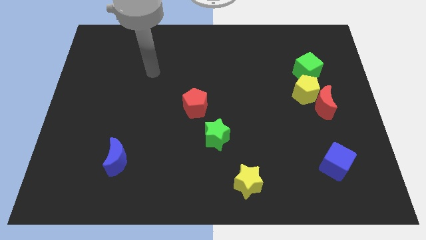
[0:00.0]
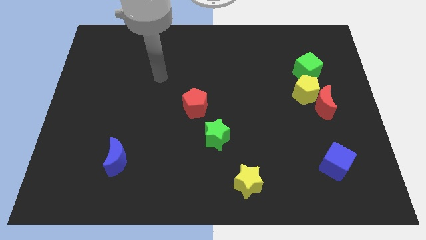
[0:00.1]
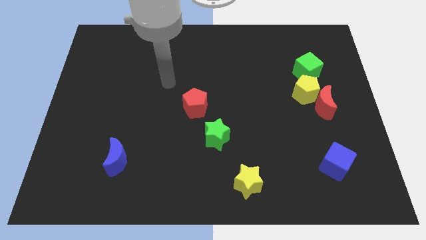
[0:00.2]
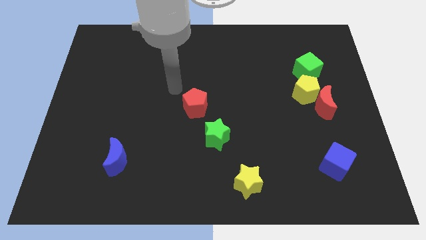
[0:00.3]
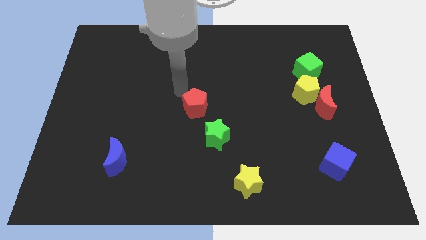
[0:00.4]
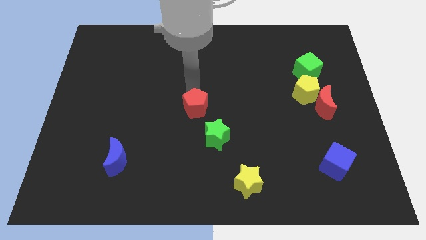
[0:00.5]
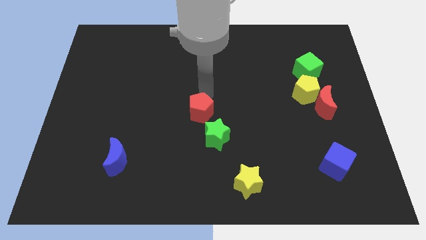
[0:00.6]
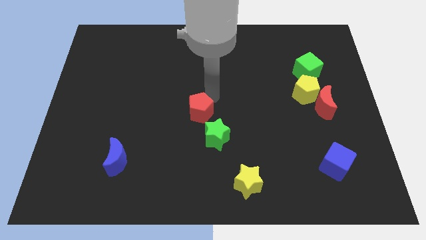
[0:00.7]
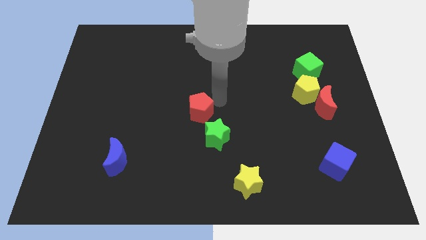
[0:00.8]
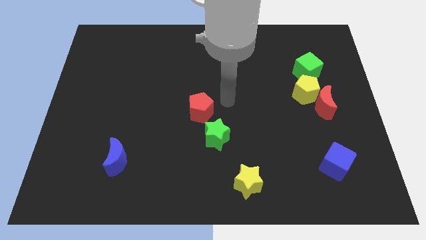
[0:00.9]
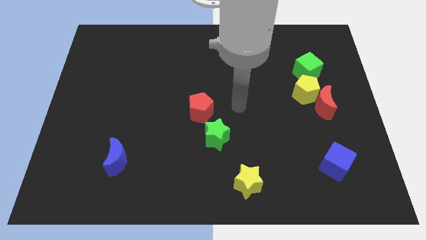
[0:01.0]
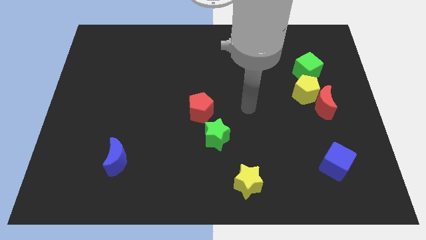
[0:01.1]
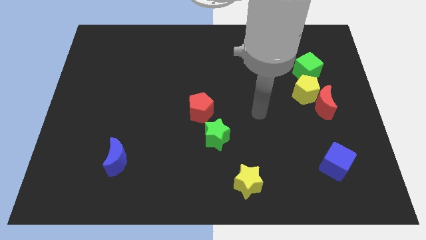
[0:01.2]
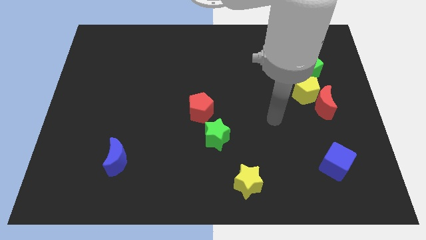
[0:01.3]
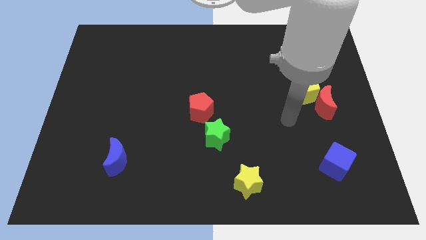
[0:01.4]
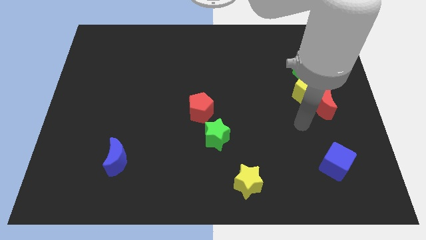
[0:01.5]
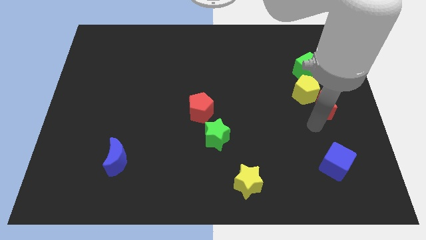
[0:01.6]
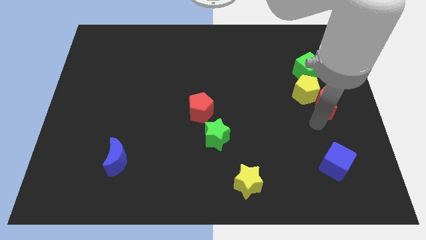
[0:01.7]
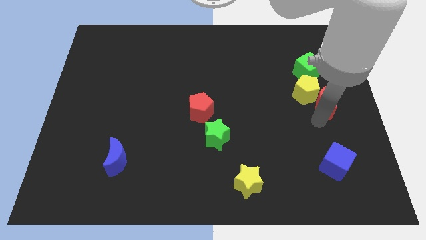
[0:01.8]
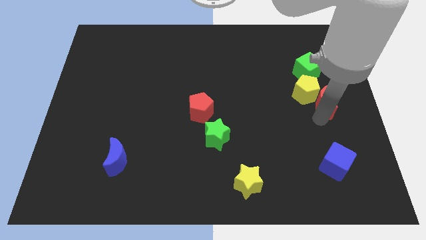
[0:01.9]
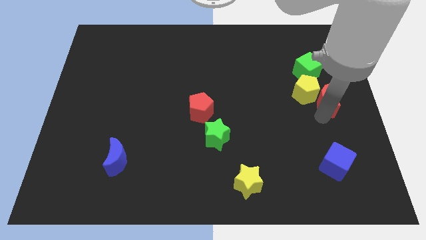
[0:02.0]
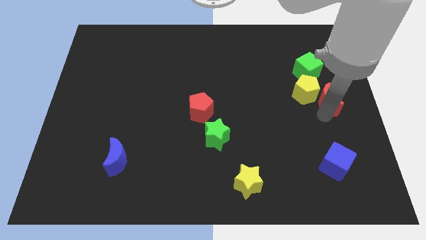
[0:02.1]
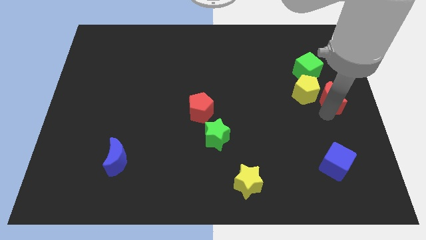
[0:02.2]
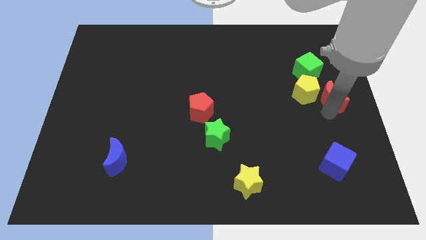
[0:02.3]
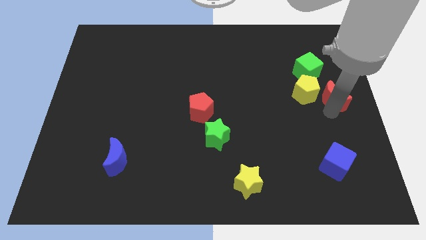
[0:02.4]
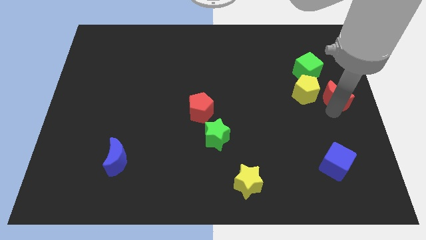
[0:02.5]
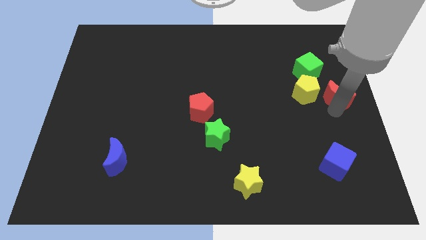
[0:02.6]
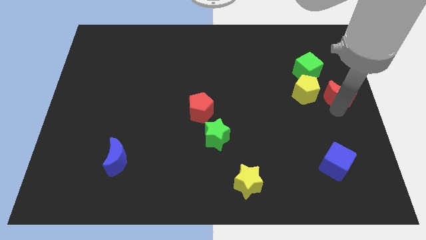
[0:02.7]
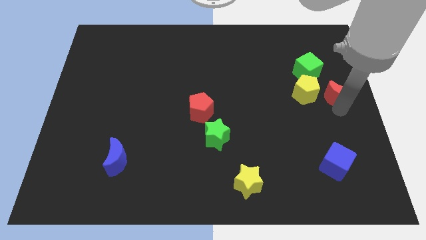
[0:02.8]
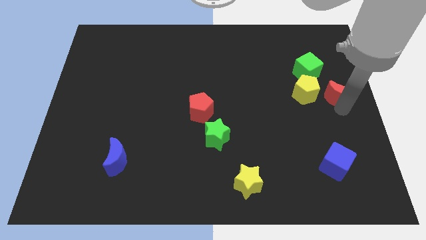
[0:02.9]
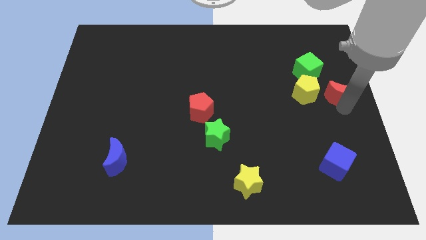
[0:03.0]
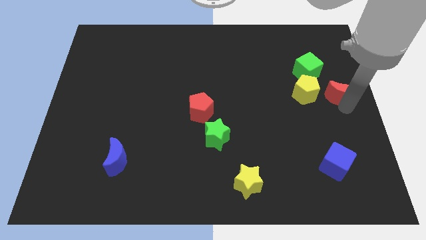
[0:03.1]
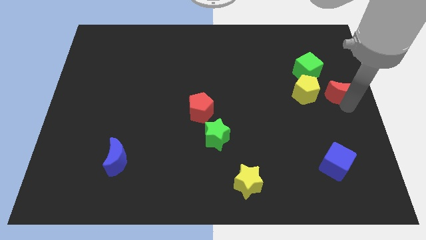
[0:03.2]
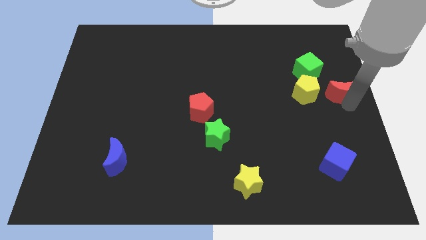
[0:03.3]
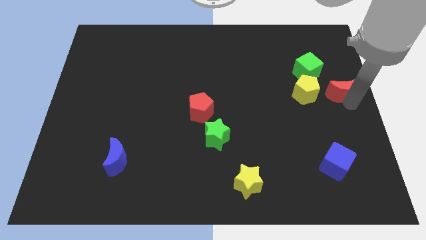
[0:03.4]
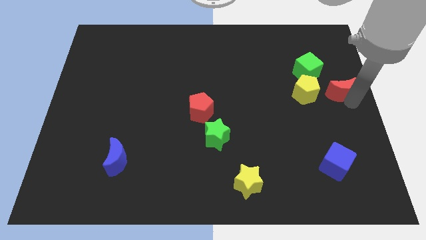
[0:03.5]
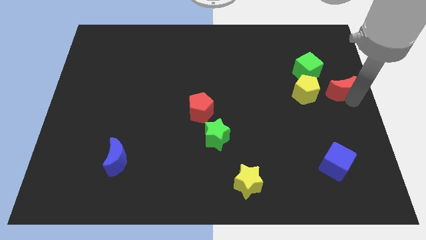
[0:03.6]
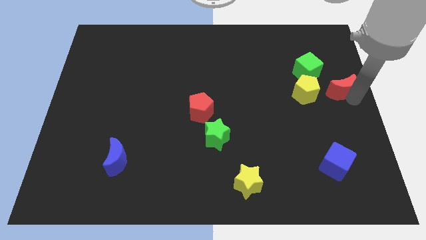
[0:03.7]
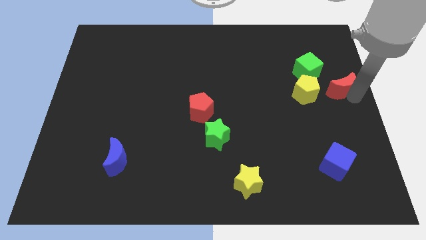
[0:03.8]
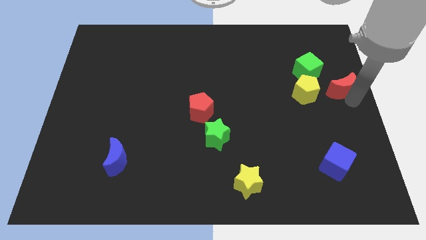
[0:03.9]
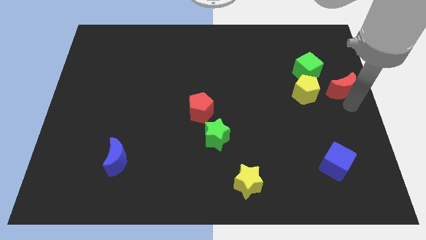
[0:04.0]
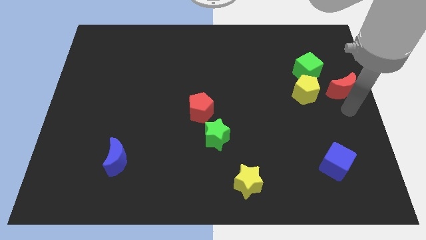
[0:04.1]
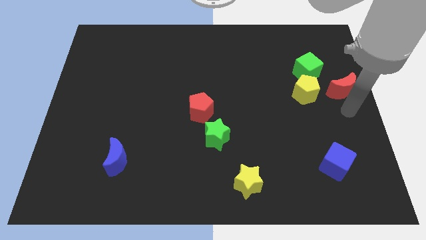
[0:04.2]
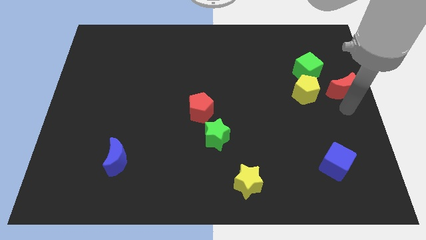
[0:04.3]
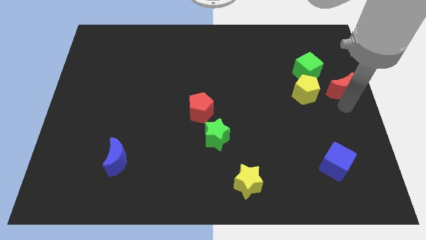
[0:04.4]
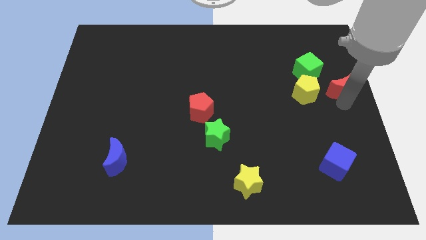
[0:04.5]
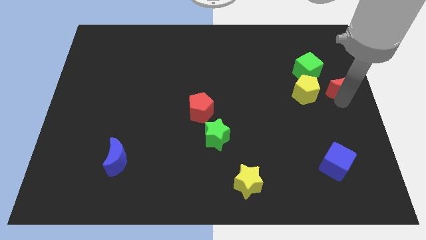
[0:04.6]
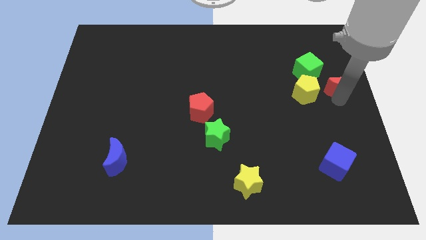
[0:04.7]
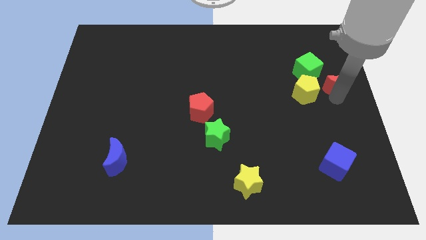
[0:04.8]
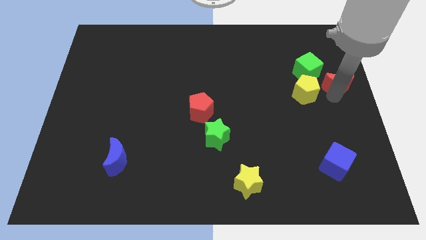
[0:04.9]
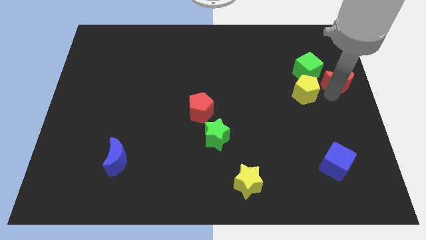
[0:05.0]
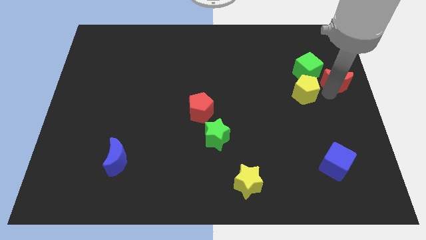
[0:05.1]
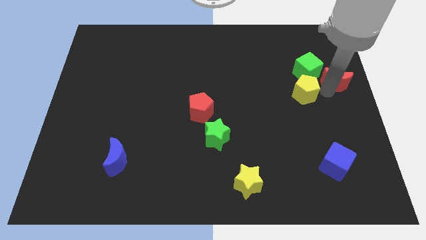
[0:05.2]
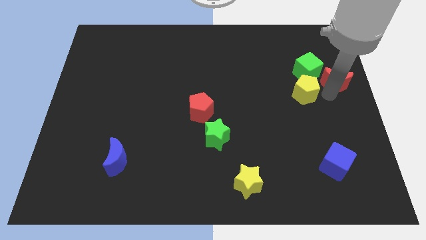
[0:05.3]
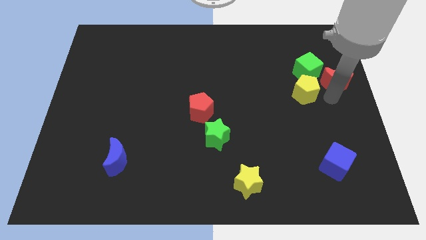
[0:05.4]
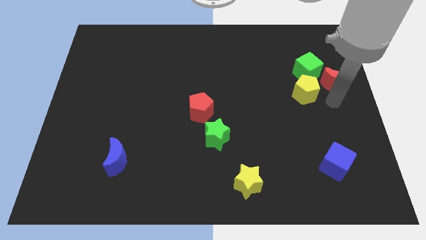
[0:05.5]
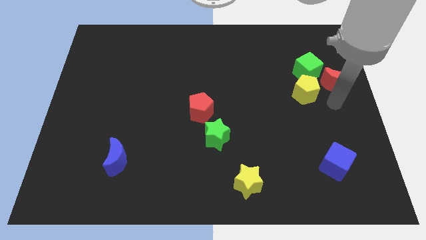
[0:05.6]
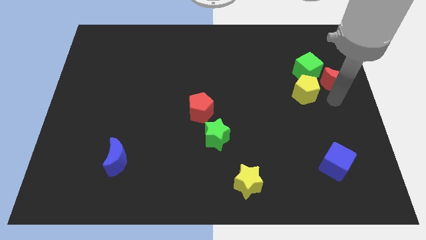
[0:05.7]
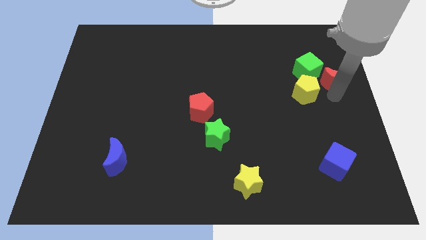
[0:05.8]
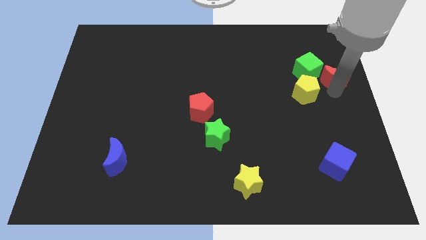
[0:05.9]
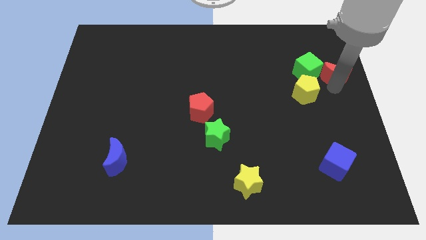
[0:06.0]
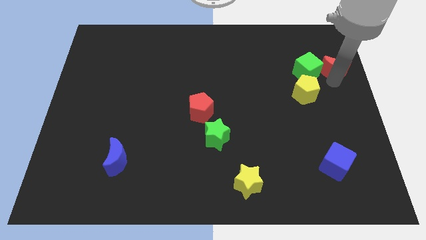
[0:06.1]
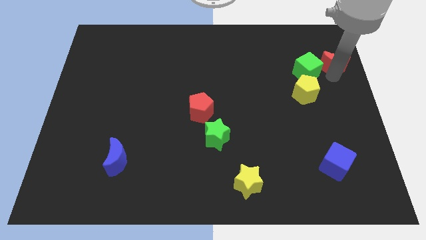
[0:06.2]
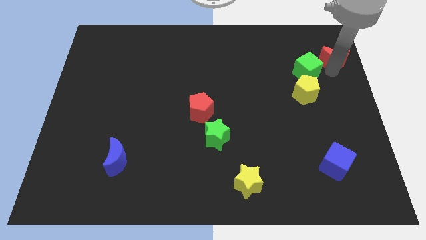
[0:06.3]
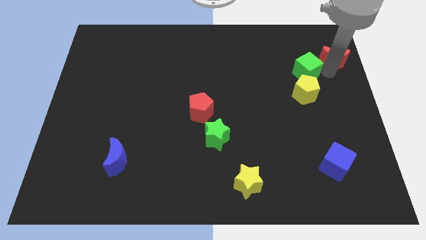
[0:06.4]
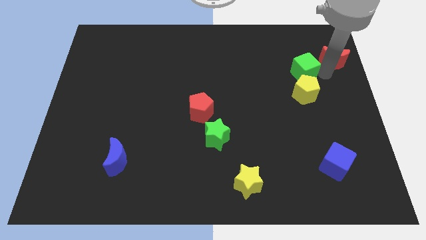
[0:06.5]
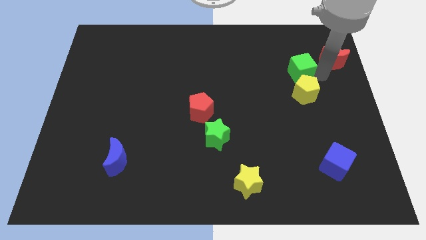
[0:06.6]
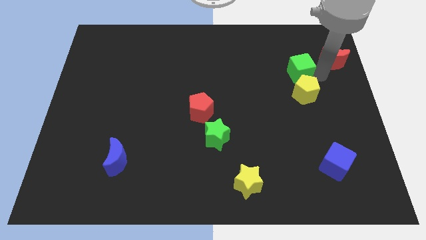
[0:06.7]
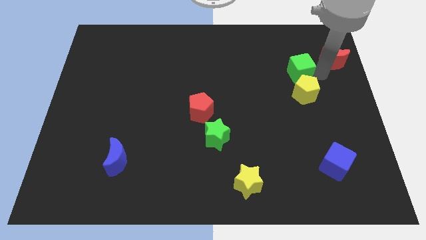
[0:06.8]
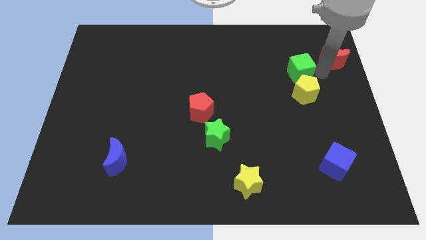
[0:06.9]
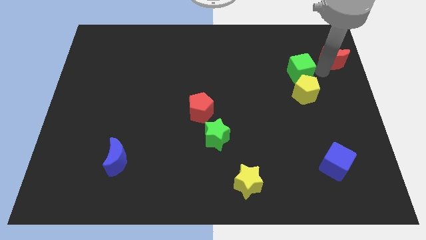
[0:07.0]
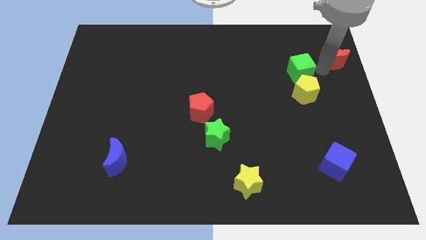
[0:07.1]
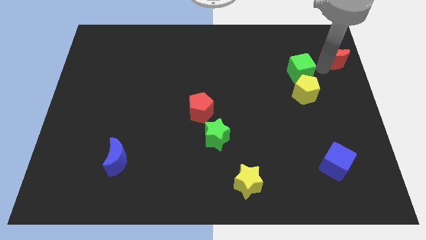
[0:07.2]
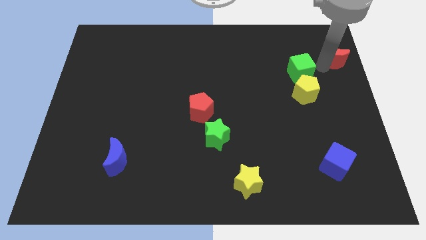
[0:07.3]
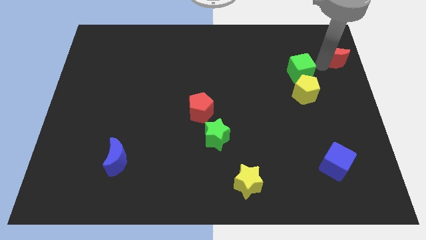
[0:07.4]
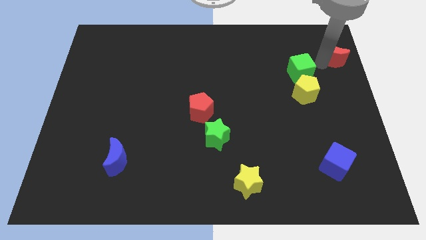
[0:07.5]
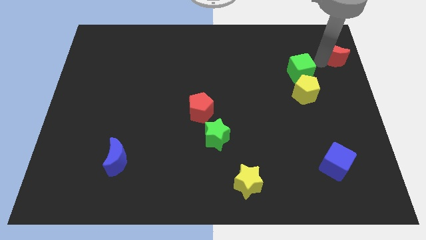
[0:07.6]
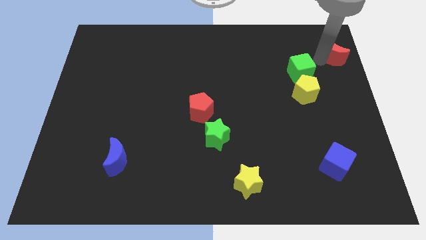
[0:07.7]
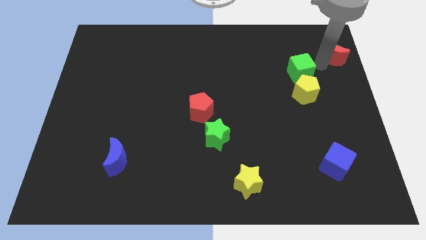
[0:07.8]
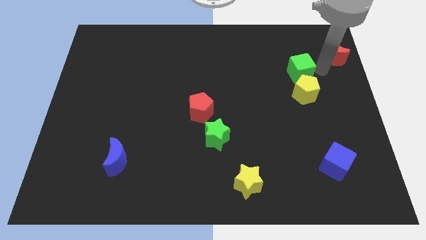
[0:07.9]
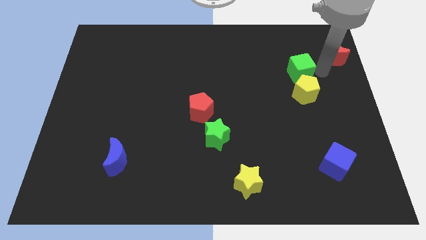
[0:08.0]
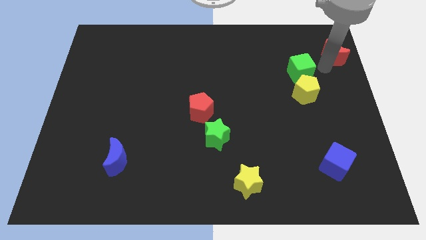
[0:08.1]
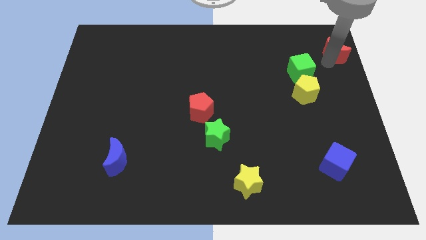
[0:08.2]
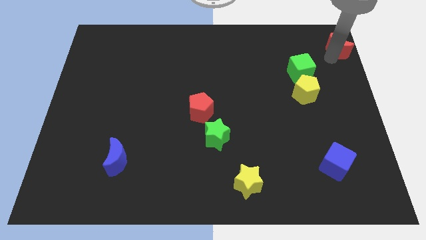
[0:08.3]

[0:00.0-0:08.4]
slide the red moon to the upper right corner
